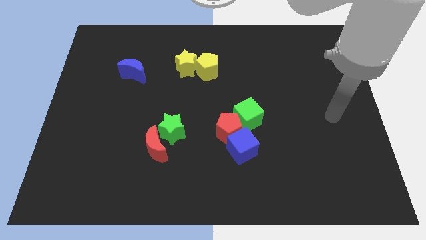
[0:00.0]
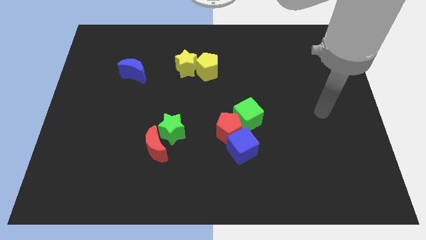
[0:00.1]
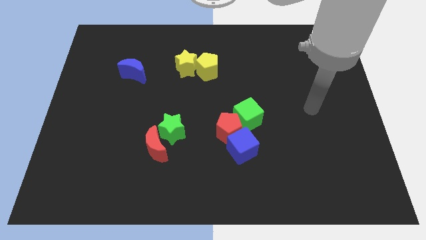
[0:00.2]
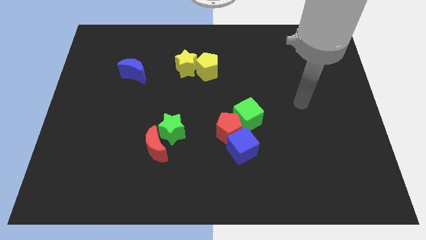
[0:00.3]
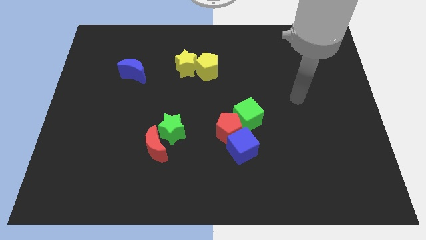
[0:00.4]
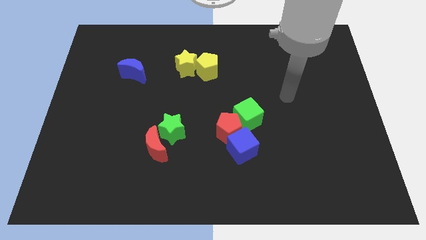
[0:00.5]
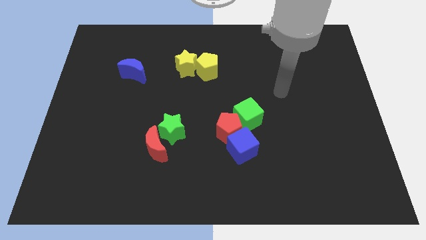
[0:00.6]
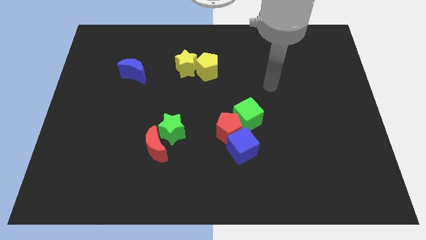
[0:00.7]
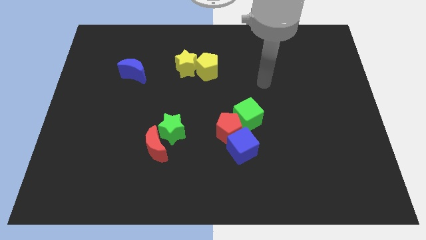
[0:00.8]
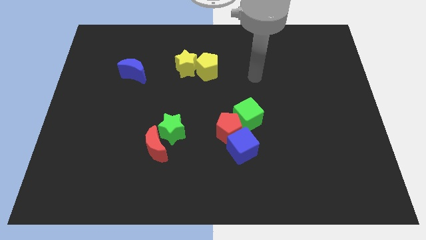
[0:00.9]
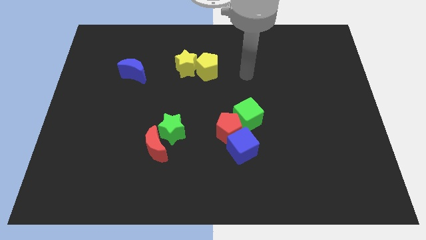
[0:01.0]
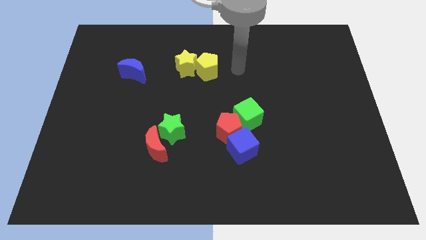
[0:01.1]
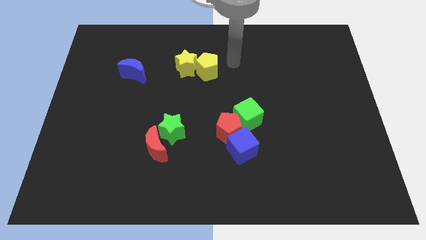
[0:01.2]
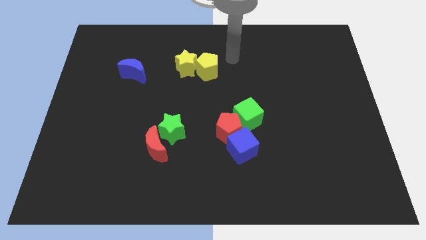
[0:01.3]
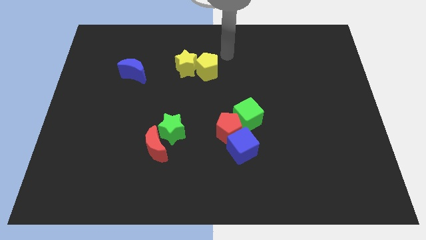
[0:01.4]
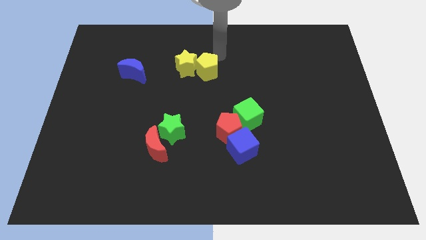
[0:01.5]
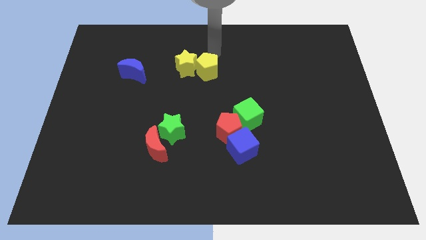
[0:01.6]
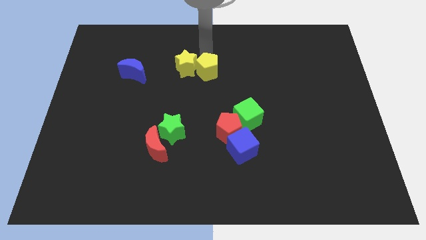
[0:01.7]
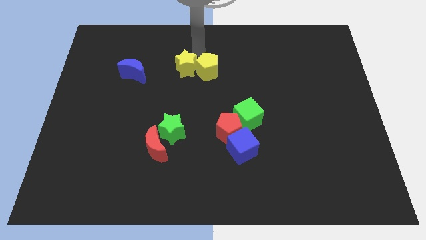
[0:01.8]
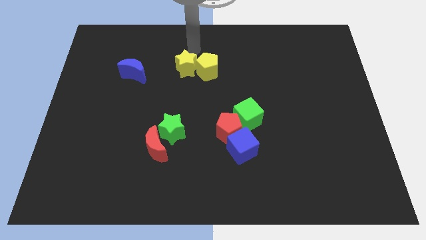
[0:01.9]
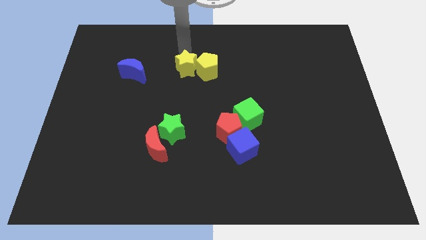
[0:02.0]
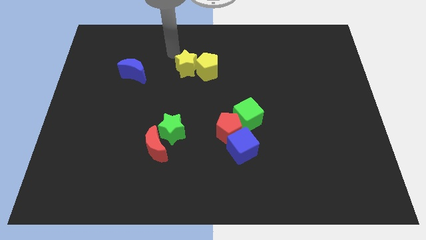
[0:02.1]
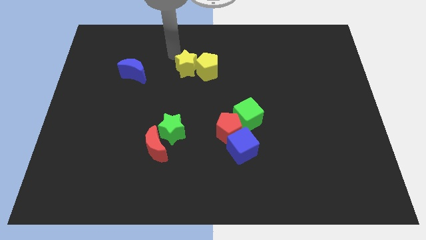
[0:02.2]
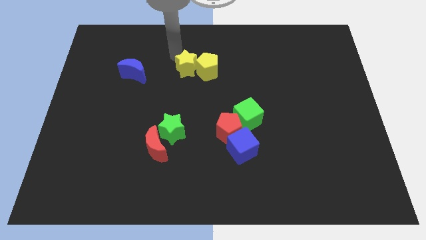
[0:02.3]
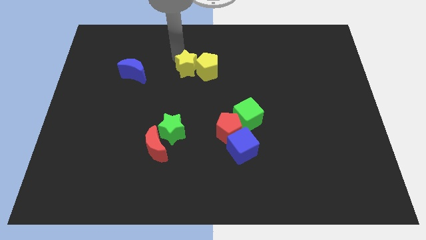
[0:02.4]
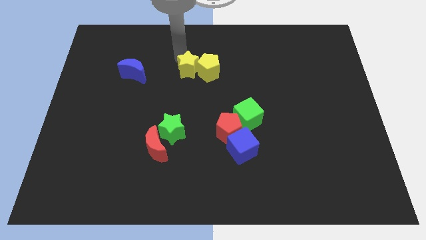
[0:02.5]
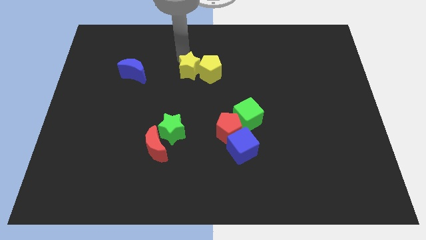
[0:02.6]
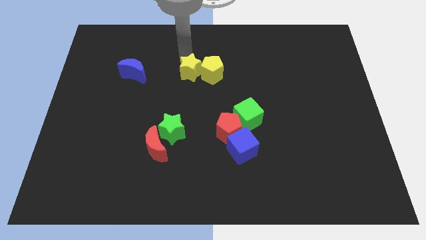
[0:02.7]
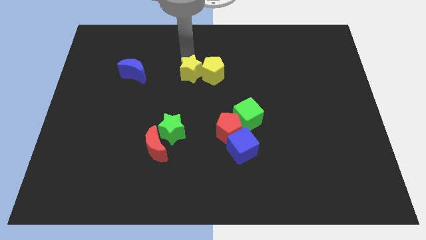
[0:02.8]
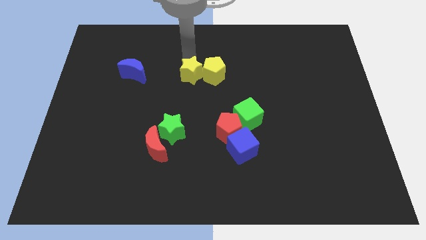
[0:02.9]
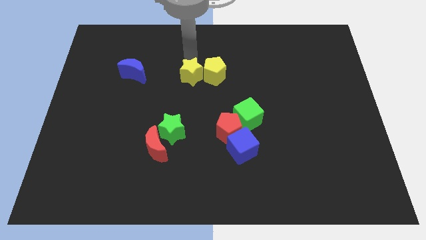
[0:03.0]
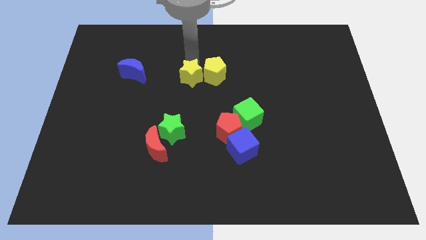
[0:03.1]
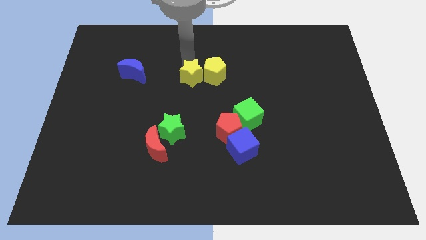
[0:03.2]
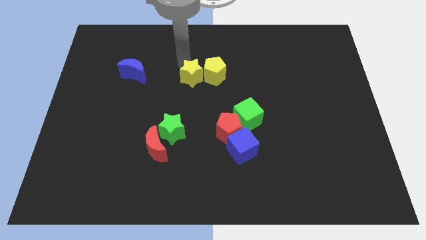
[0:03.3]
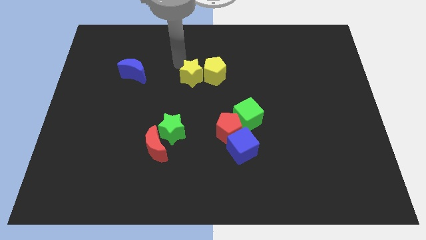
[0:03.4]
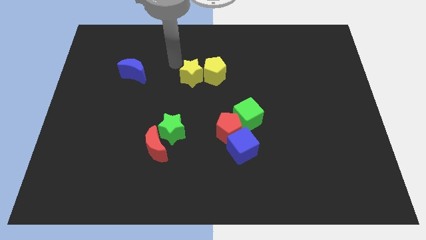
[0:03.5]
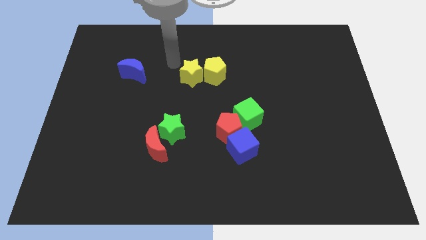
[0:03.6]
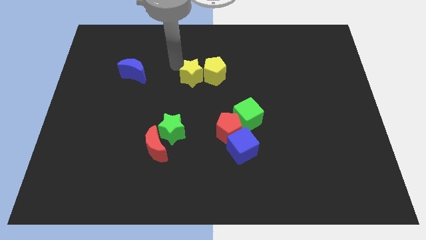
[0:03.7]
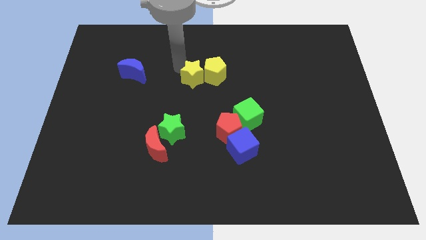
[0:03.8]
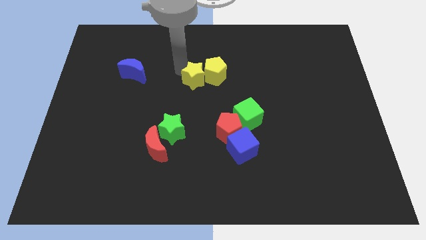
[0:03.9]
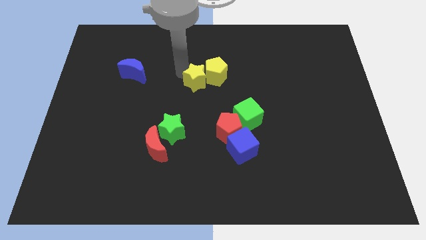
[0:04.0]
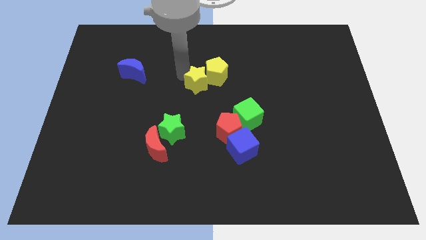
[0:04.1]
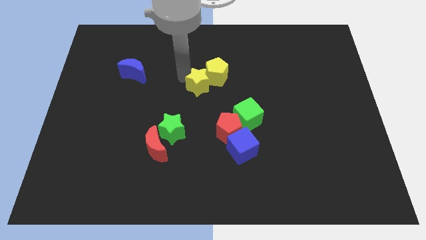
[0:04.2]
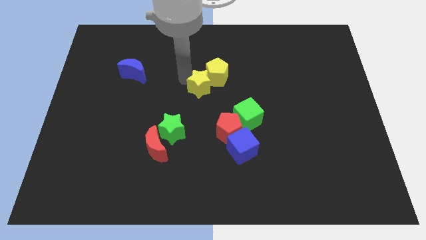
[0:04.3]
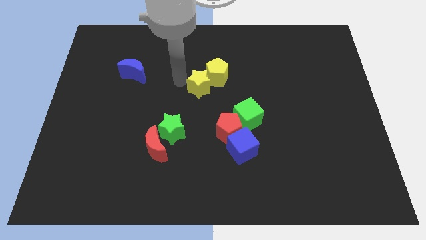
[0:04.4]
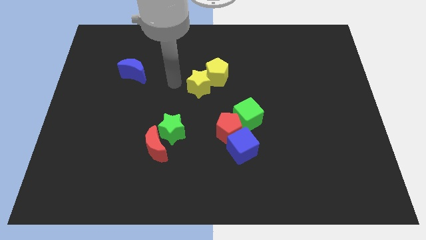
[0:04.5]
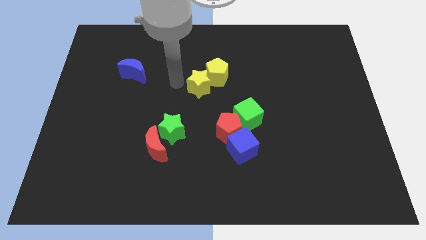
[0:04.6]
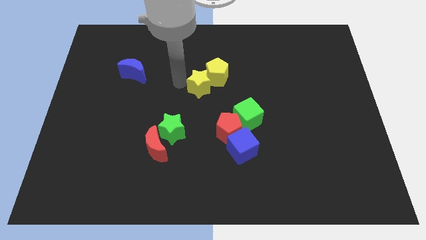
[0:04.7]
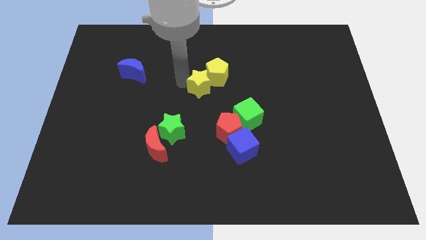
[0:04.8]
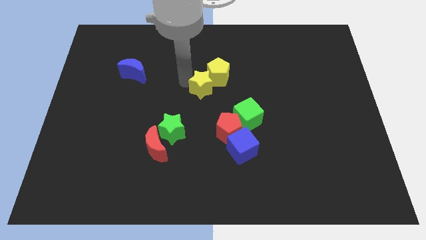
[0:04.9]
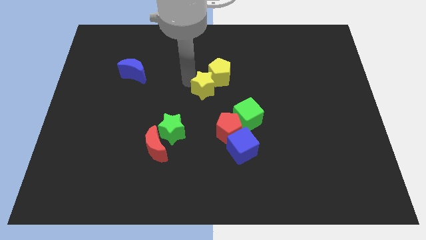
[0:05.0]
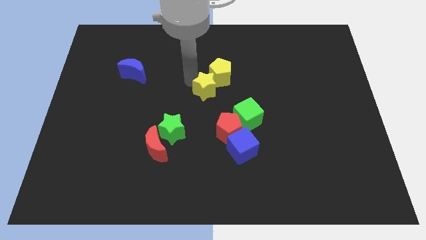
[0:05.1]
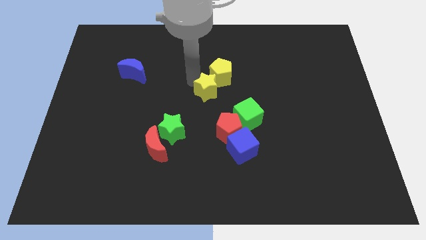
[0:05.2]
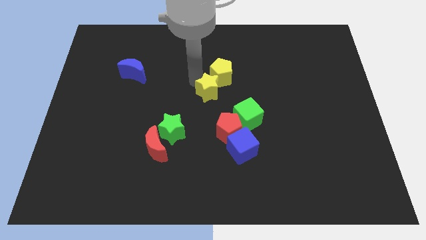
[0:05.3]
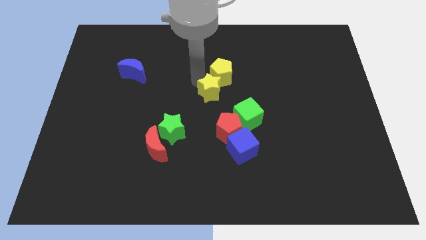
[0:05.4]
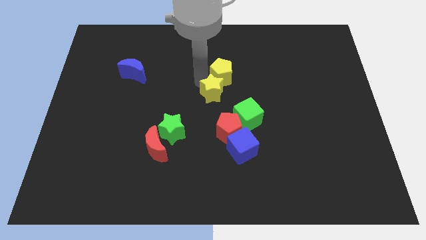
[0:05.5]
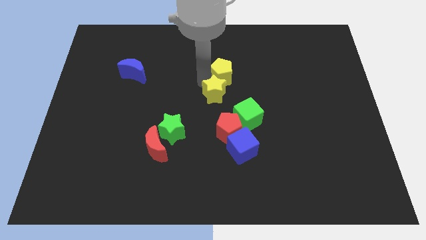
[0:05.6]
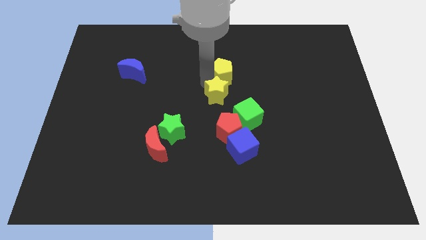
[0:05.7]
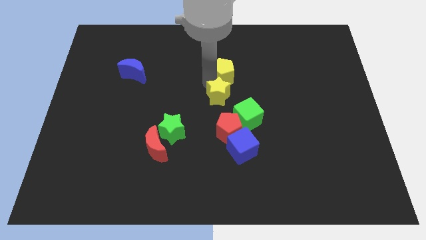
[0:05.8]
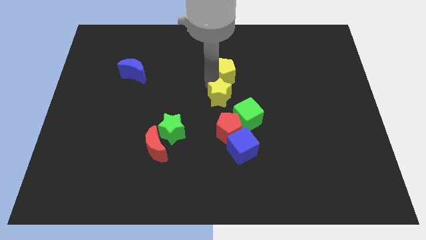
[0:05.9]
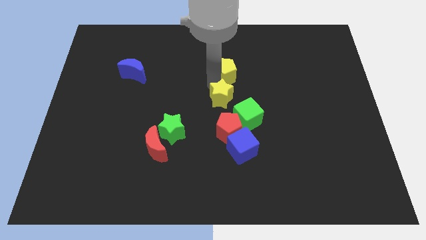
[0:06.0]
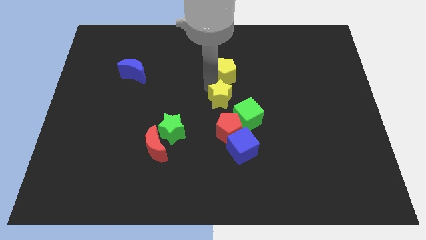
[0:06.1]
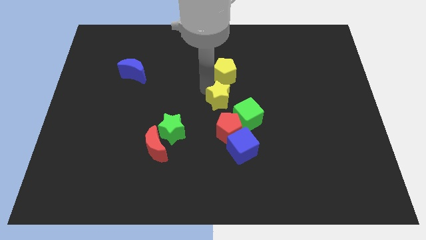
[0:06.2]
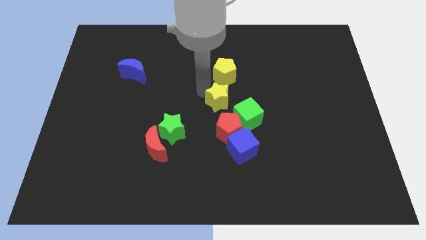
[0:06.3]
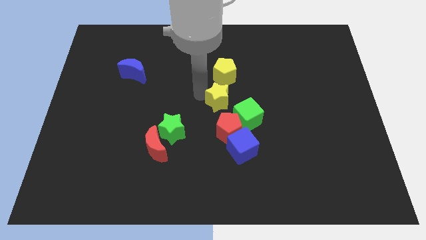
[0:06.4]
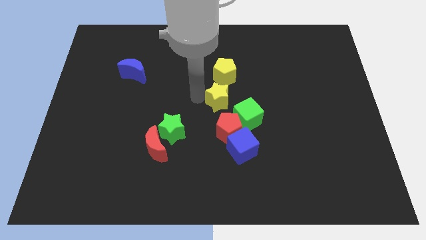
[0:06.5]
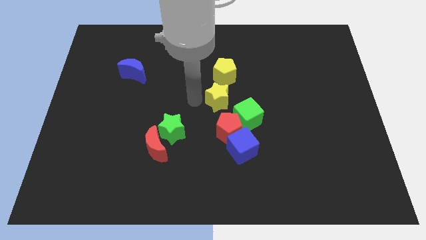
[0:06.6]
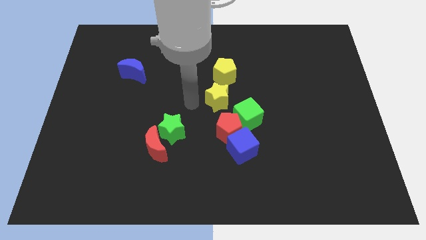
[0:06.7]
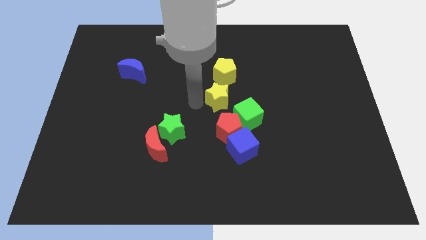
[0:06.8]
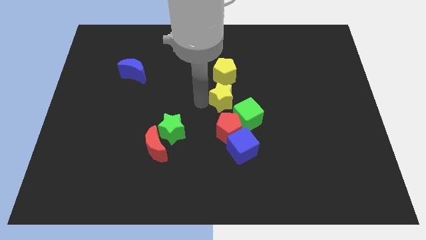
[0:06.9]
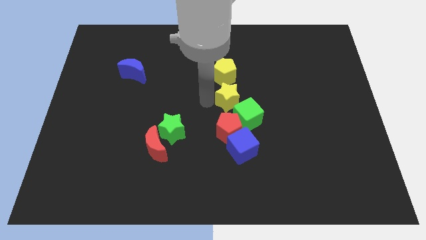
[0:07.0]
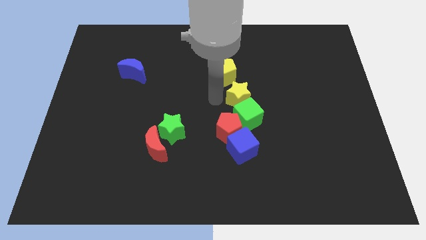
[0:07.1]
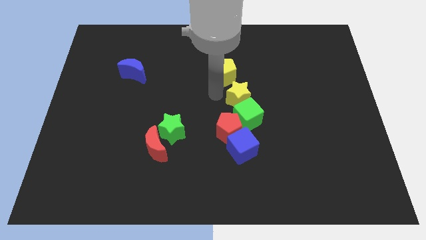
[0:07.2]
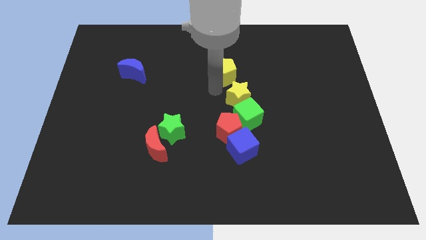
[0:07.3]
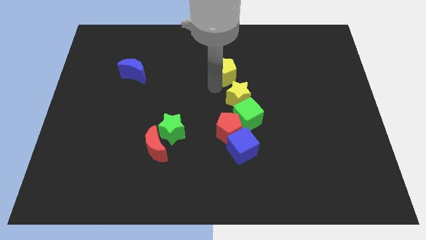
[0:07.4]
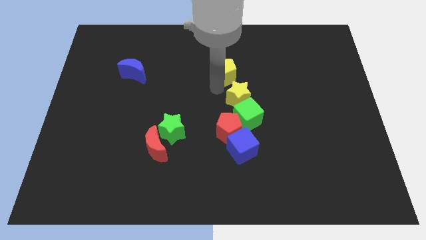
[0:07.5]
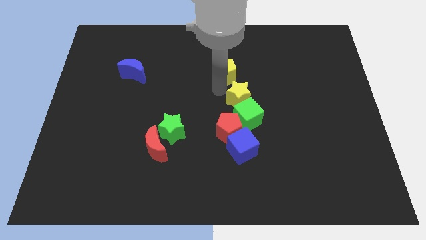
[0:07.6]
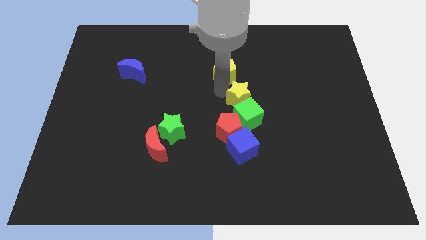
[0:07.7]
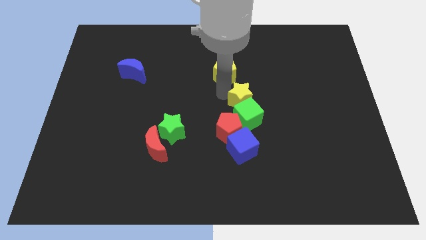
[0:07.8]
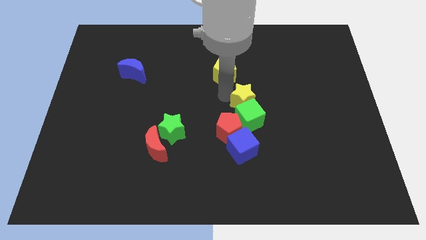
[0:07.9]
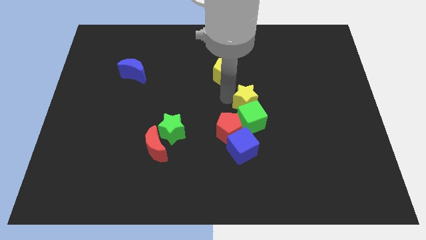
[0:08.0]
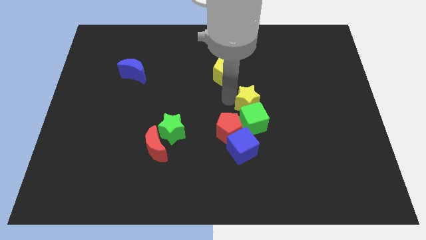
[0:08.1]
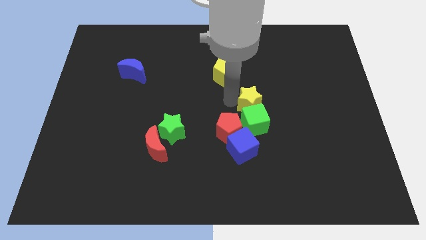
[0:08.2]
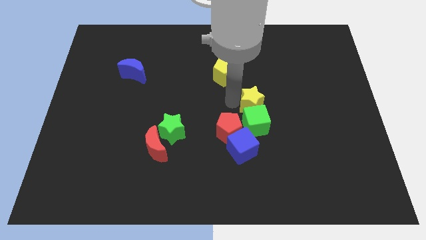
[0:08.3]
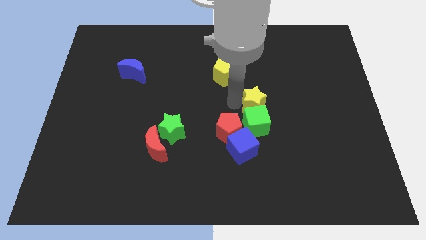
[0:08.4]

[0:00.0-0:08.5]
move the yellow star downwards and then to the right
